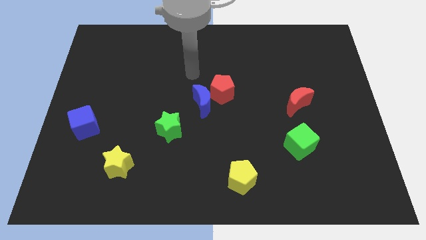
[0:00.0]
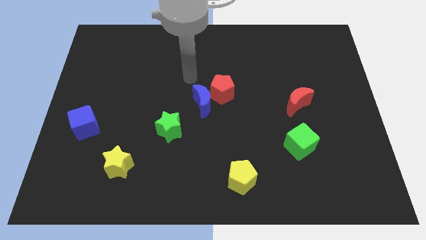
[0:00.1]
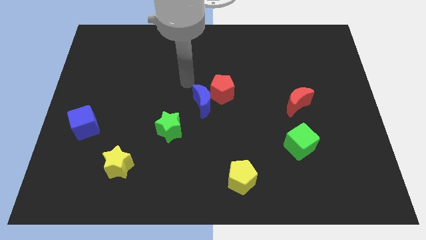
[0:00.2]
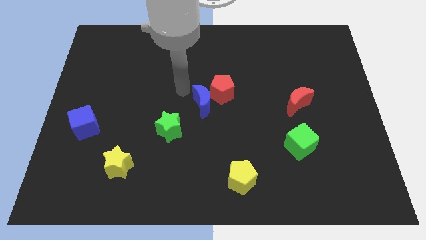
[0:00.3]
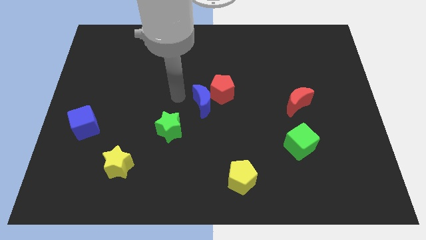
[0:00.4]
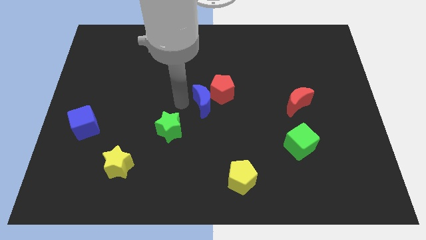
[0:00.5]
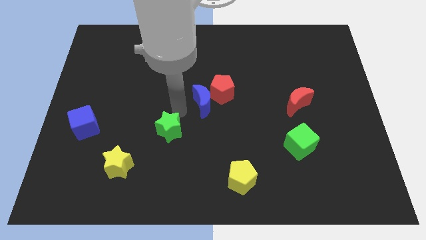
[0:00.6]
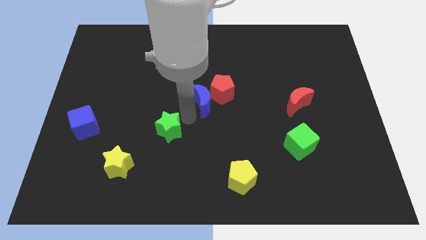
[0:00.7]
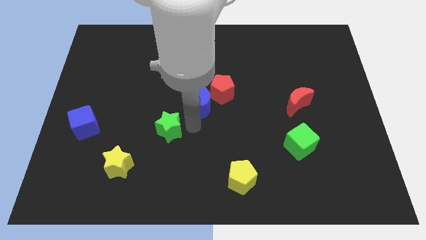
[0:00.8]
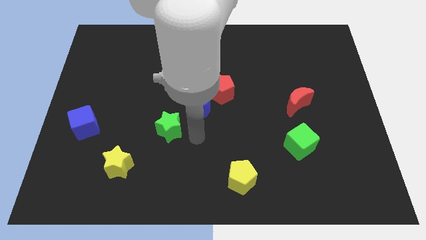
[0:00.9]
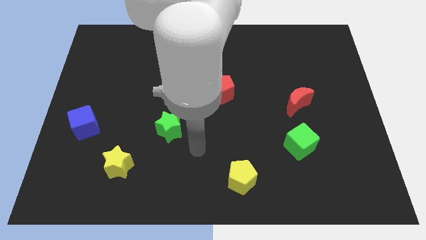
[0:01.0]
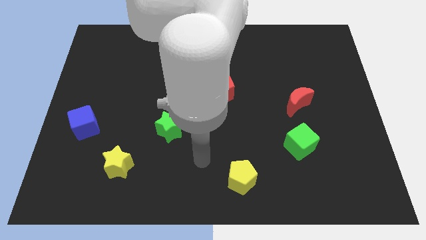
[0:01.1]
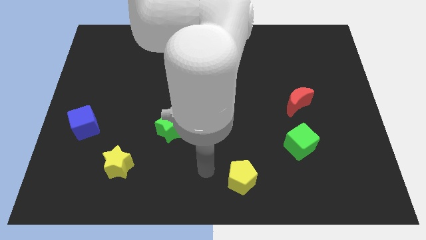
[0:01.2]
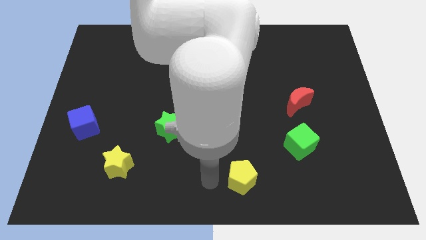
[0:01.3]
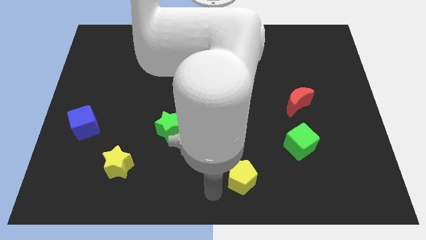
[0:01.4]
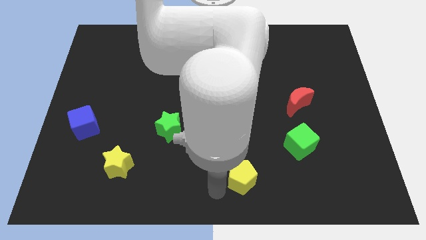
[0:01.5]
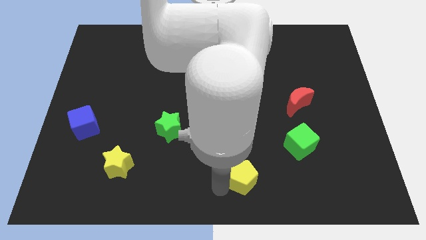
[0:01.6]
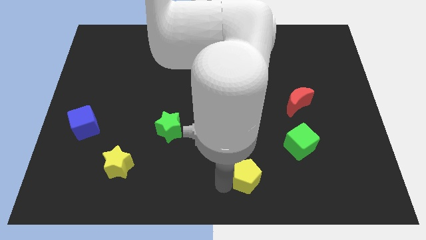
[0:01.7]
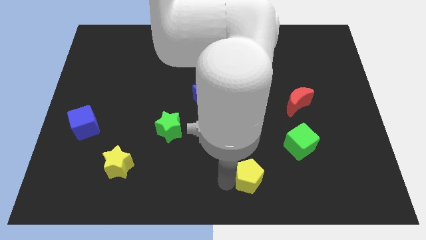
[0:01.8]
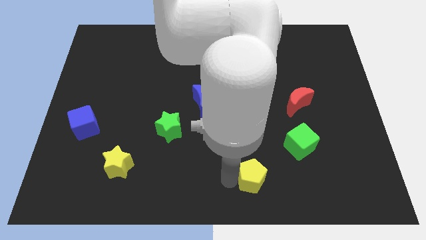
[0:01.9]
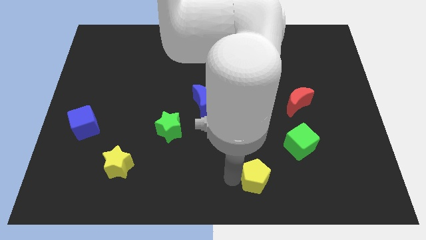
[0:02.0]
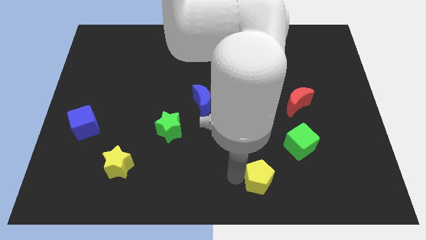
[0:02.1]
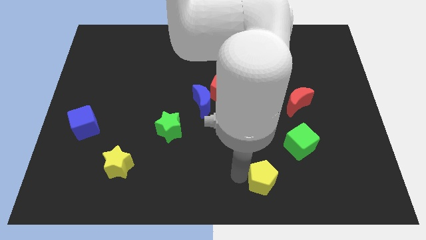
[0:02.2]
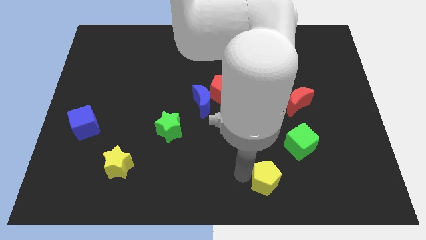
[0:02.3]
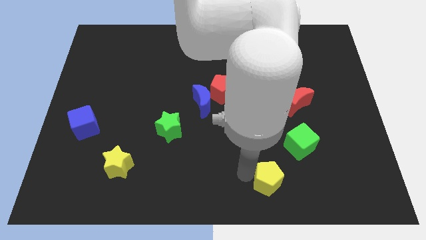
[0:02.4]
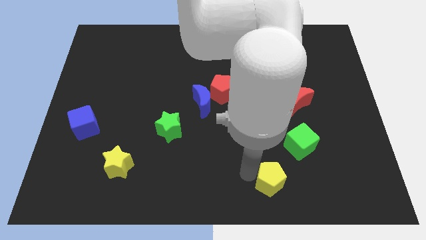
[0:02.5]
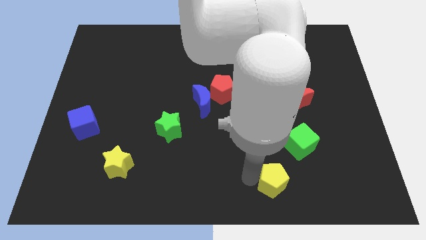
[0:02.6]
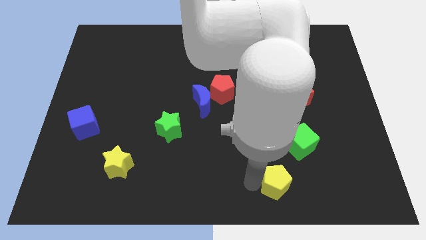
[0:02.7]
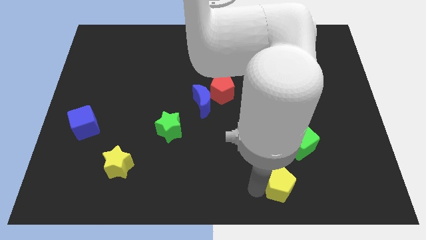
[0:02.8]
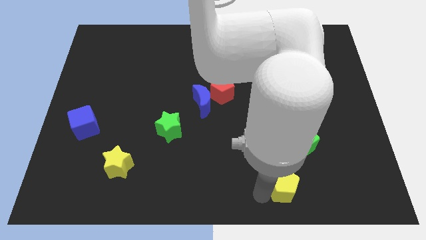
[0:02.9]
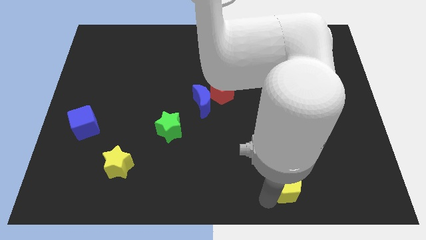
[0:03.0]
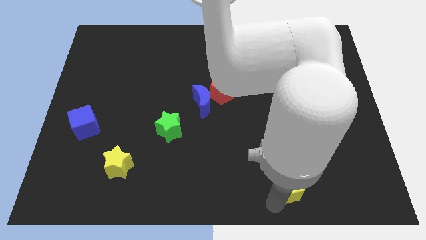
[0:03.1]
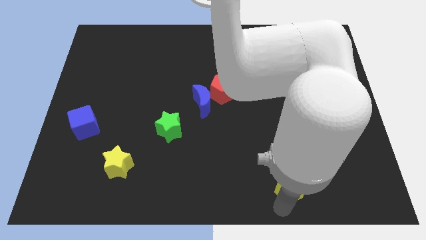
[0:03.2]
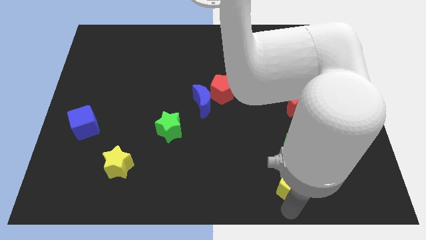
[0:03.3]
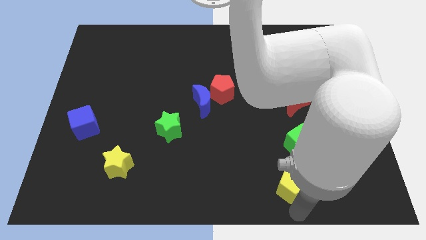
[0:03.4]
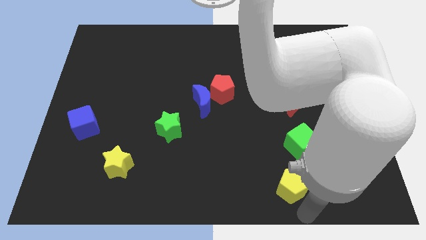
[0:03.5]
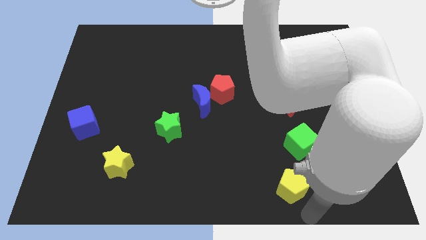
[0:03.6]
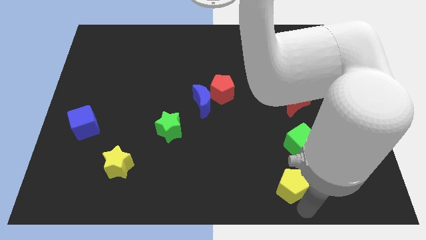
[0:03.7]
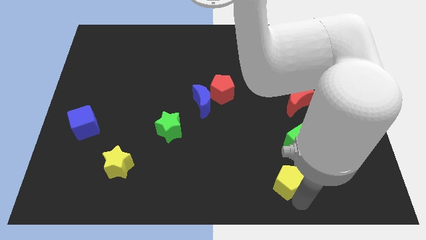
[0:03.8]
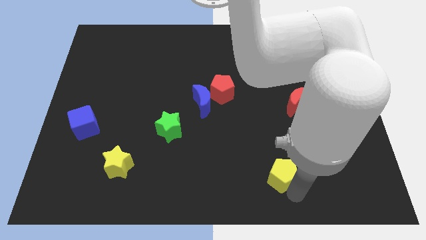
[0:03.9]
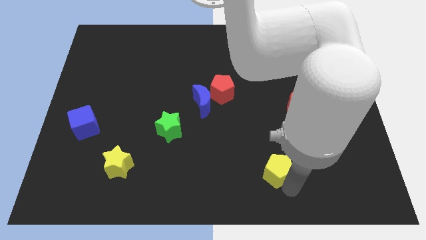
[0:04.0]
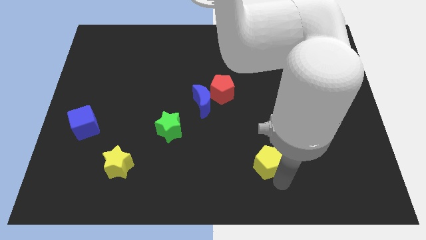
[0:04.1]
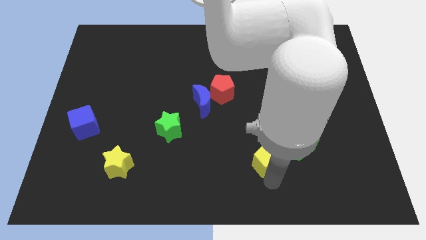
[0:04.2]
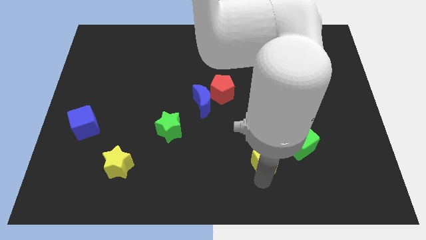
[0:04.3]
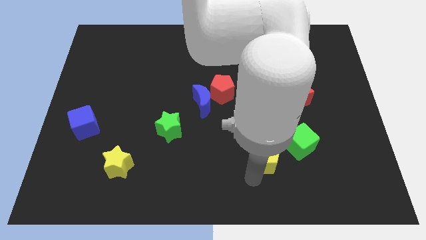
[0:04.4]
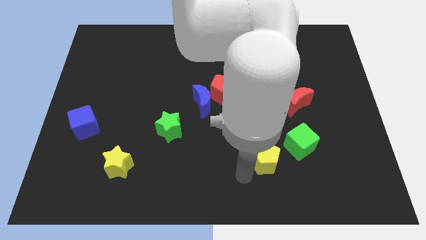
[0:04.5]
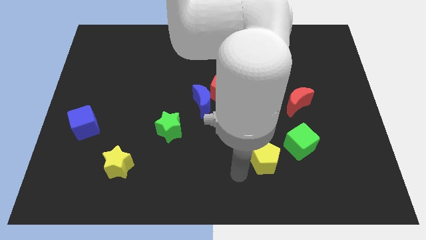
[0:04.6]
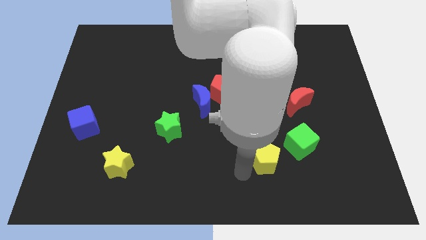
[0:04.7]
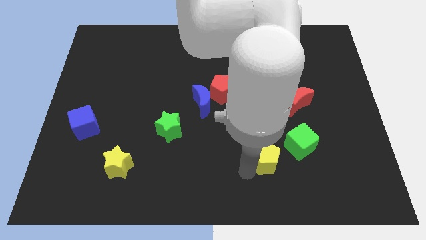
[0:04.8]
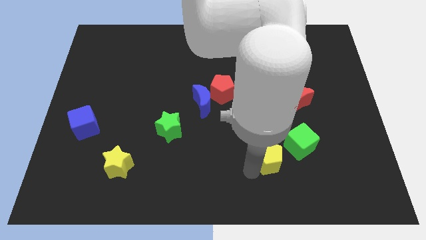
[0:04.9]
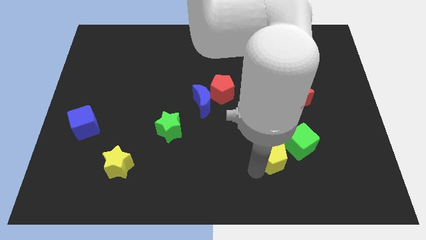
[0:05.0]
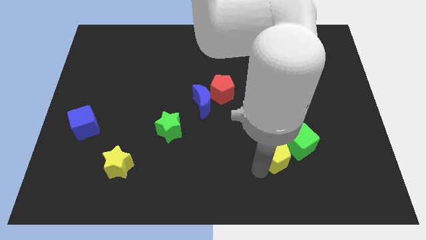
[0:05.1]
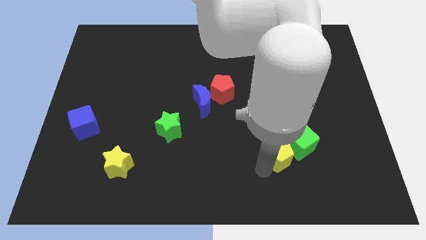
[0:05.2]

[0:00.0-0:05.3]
put the yellow pentagon next to the green cube

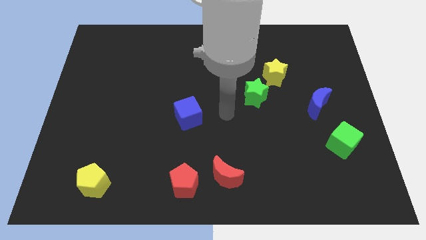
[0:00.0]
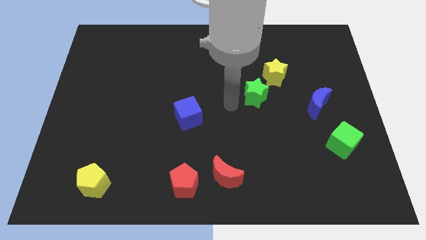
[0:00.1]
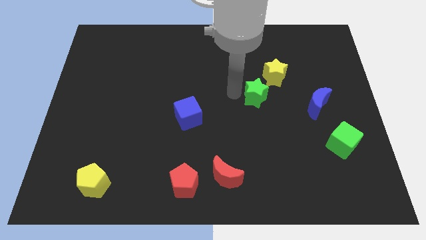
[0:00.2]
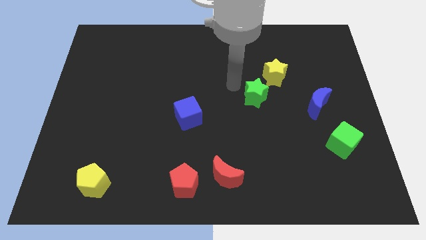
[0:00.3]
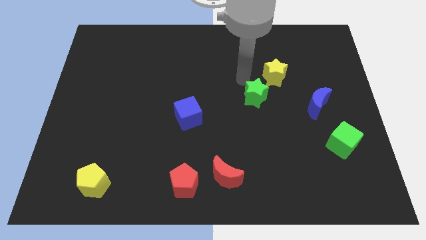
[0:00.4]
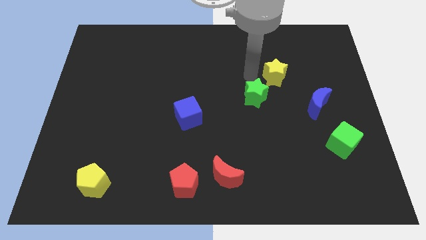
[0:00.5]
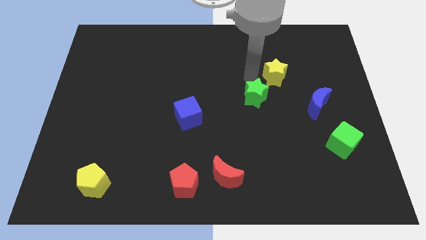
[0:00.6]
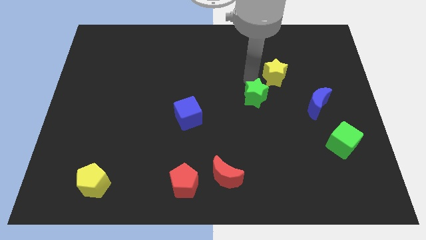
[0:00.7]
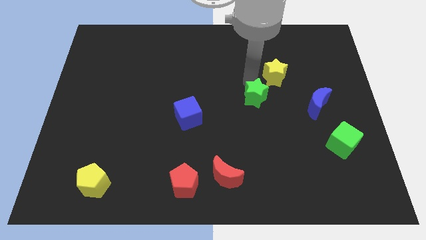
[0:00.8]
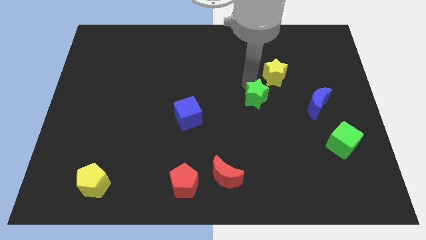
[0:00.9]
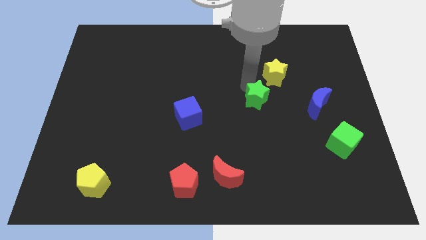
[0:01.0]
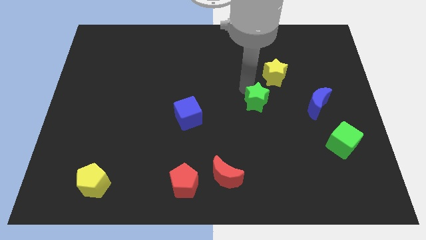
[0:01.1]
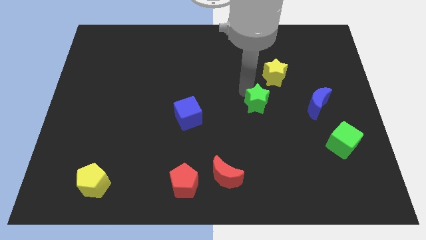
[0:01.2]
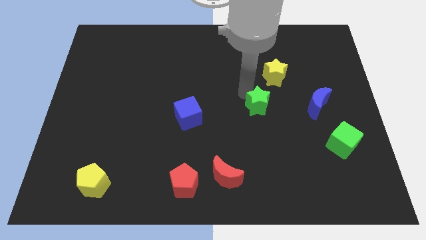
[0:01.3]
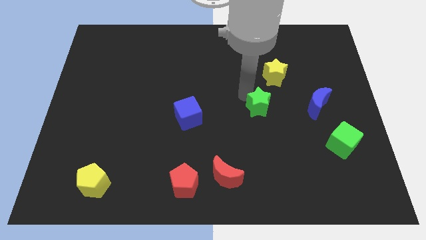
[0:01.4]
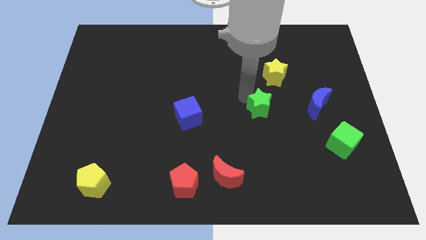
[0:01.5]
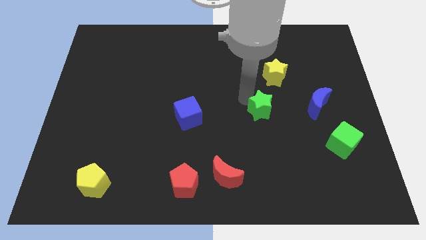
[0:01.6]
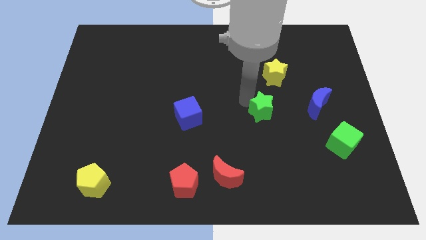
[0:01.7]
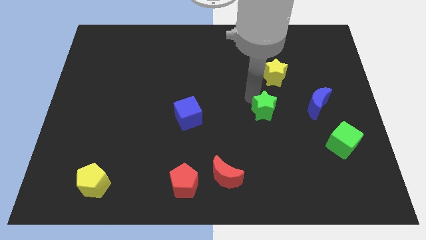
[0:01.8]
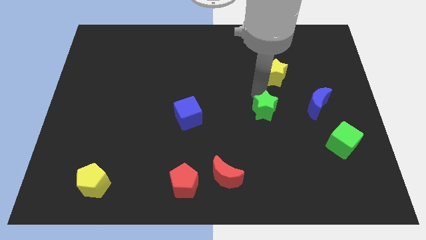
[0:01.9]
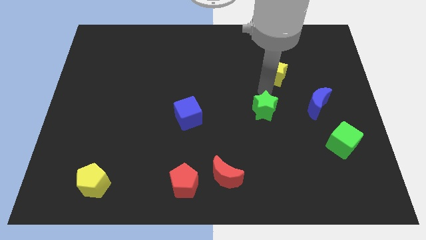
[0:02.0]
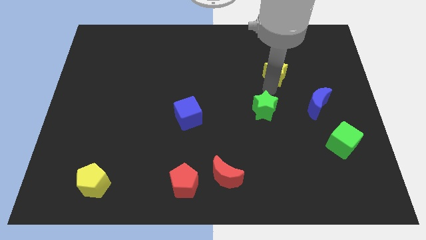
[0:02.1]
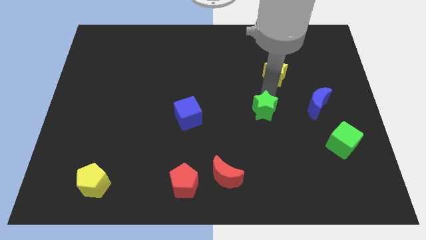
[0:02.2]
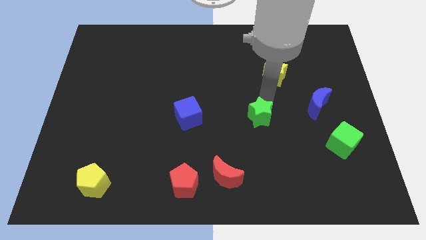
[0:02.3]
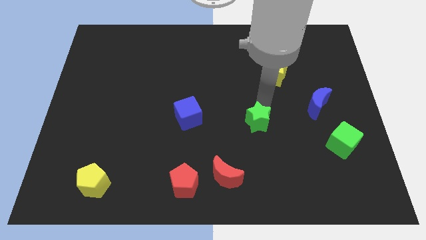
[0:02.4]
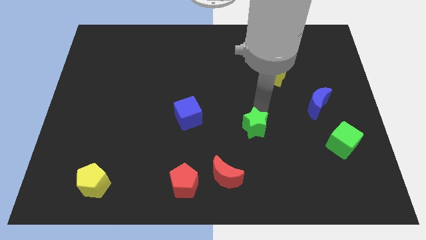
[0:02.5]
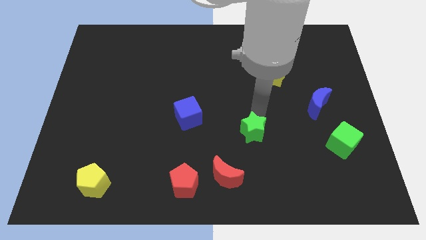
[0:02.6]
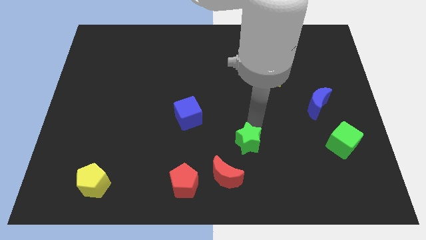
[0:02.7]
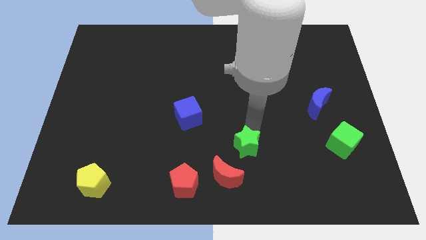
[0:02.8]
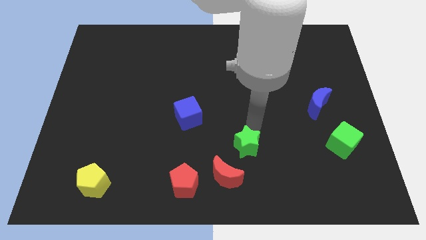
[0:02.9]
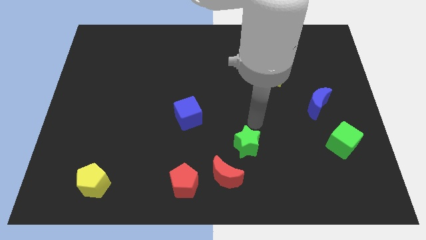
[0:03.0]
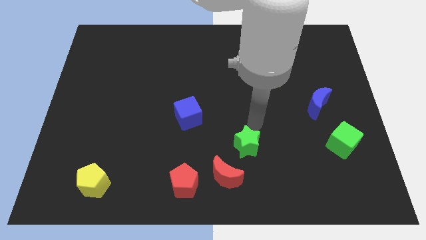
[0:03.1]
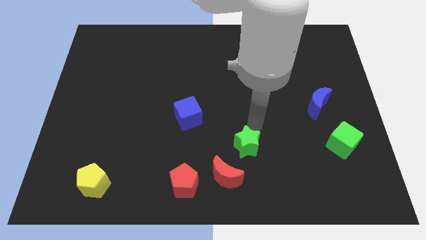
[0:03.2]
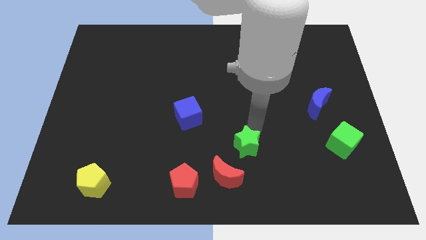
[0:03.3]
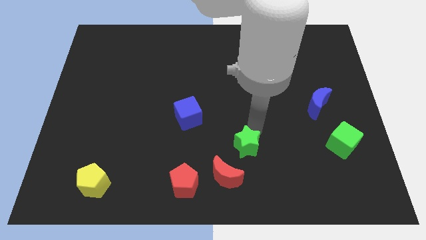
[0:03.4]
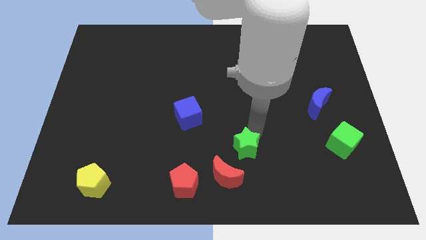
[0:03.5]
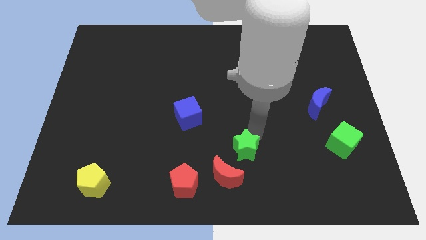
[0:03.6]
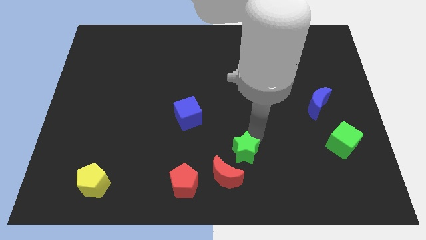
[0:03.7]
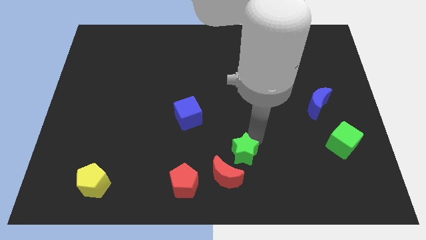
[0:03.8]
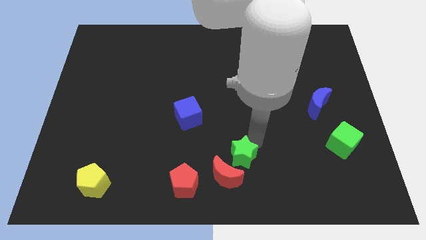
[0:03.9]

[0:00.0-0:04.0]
move the green star close to the red moon
